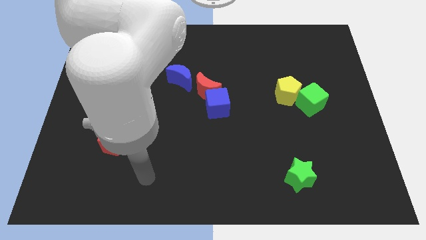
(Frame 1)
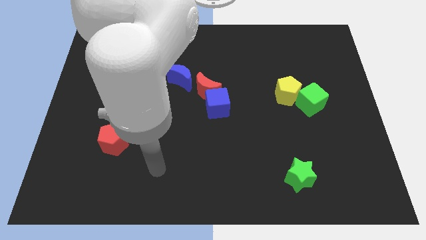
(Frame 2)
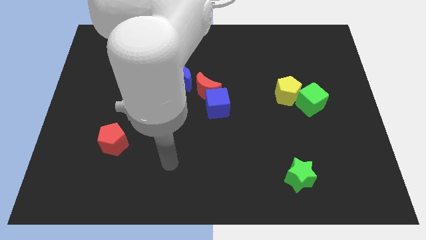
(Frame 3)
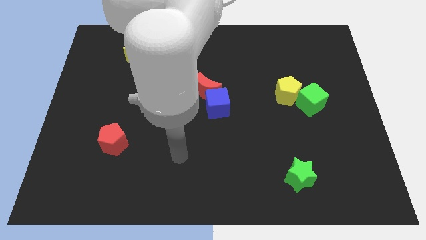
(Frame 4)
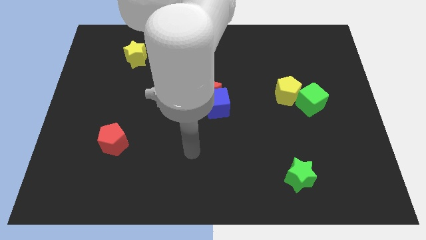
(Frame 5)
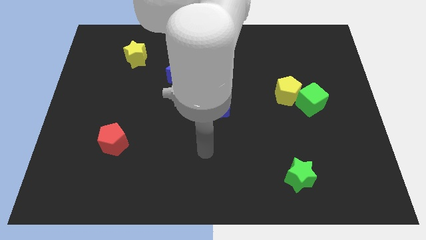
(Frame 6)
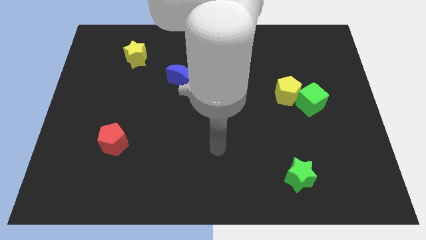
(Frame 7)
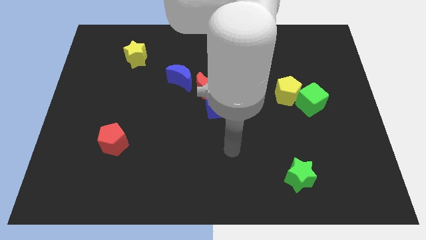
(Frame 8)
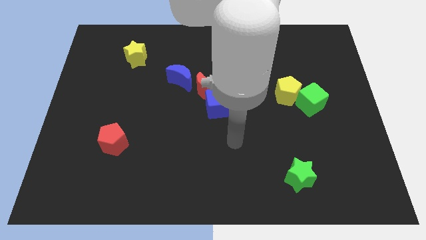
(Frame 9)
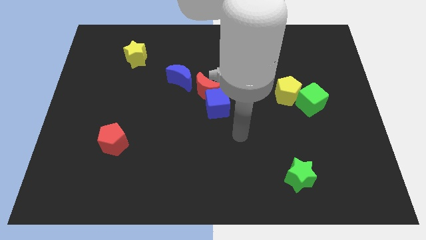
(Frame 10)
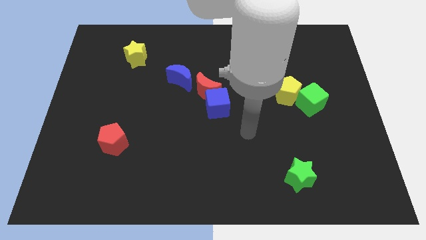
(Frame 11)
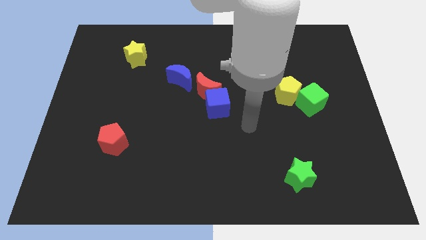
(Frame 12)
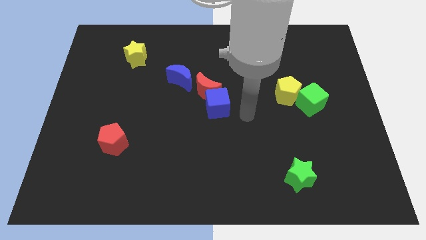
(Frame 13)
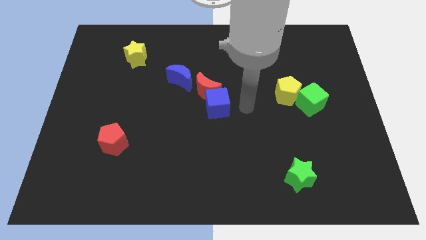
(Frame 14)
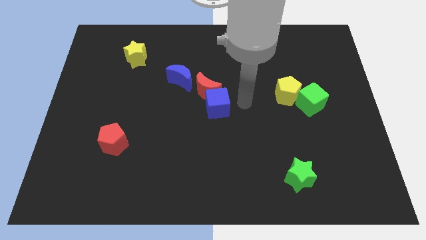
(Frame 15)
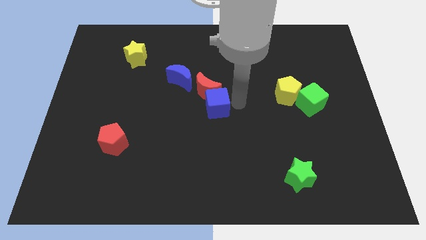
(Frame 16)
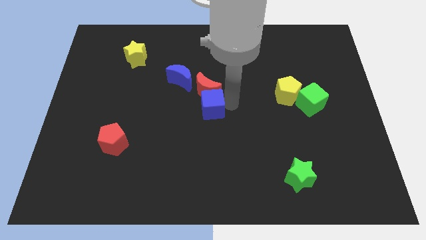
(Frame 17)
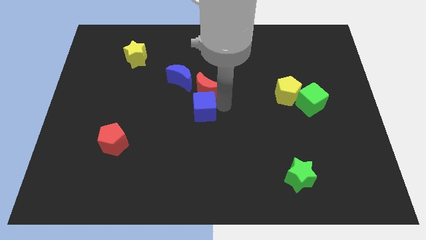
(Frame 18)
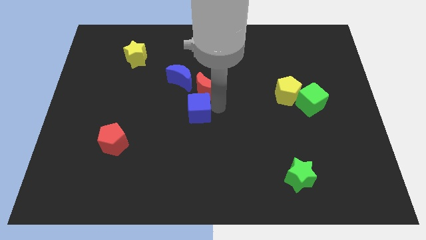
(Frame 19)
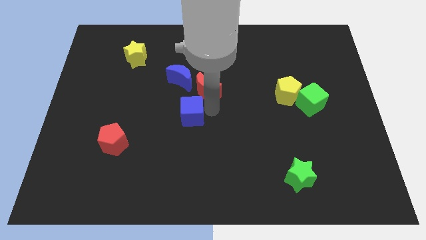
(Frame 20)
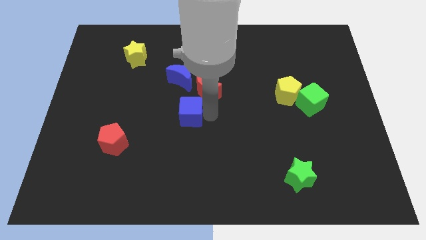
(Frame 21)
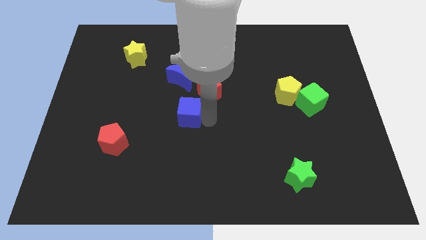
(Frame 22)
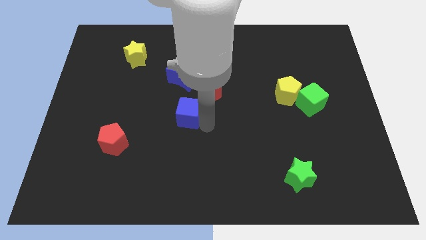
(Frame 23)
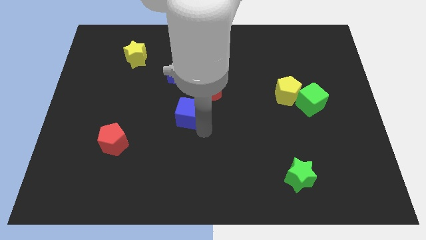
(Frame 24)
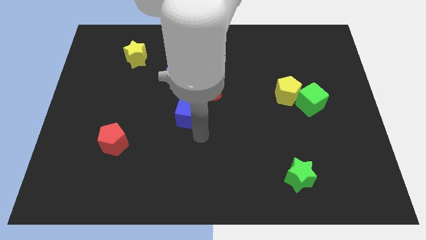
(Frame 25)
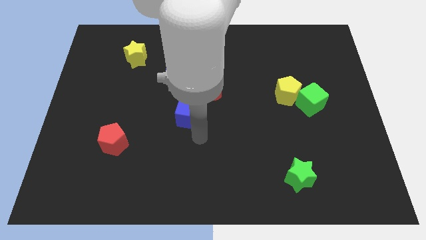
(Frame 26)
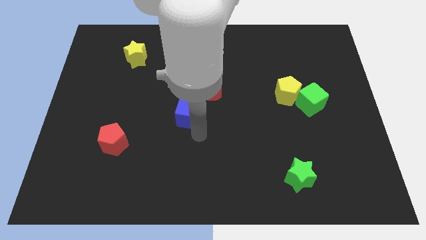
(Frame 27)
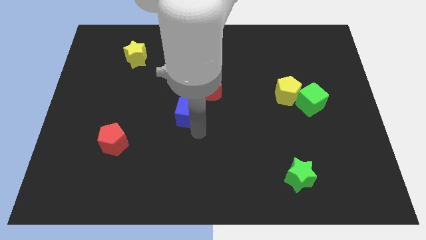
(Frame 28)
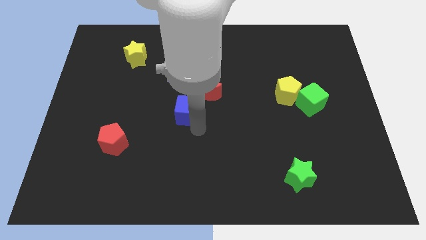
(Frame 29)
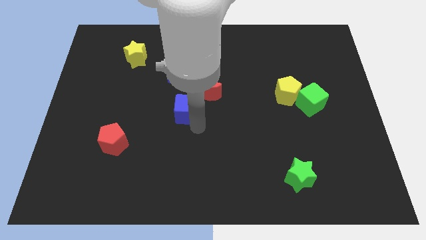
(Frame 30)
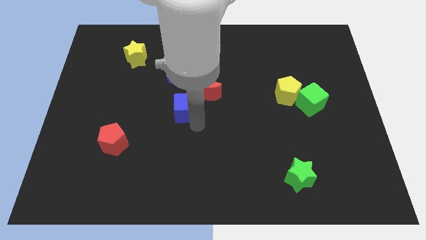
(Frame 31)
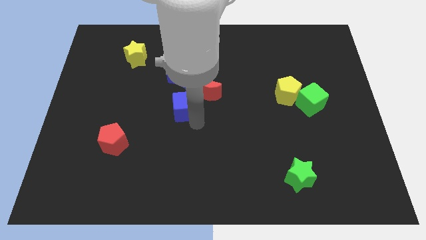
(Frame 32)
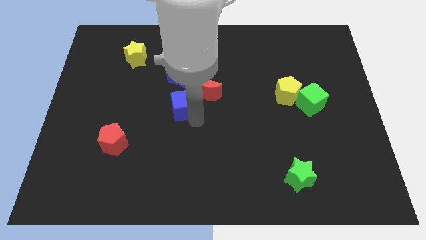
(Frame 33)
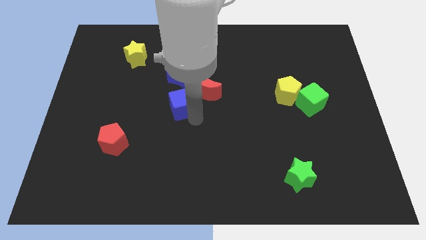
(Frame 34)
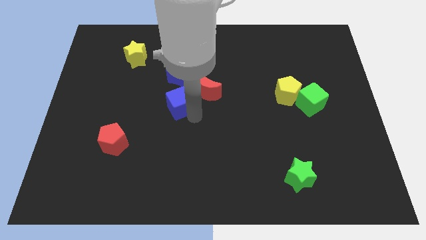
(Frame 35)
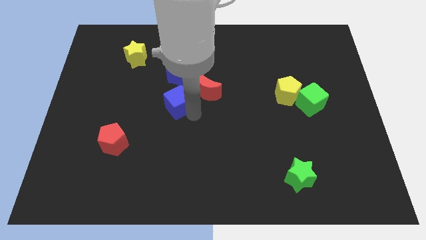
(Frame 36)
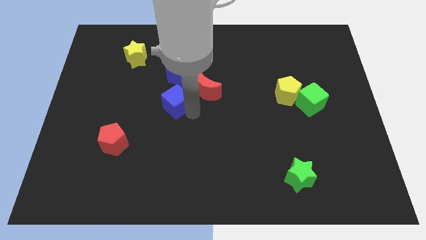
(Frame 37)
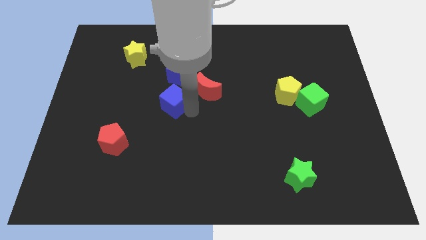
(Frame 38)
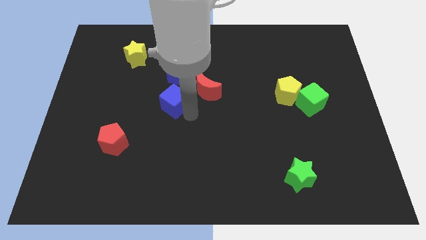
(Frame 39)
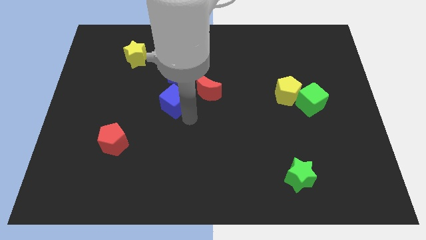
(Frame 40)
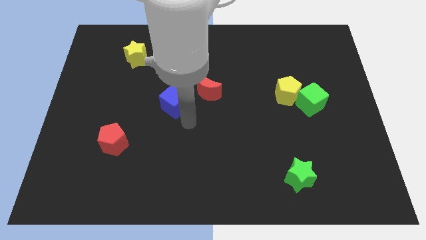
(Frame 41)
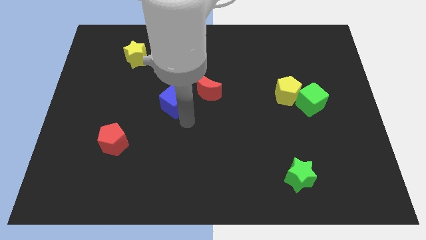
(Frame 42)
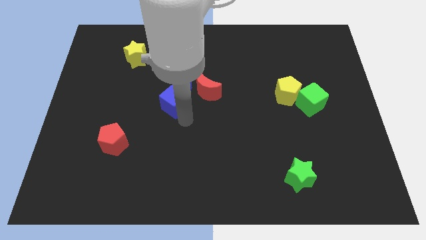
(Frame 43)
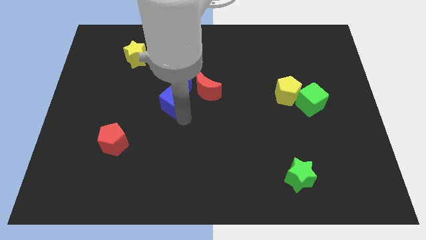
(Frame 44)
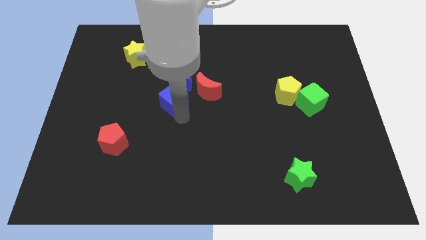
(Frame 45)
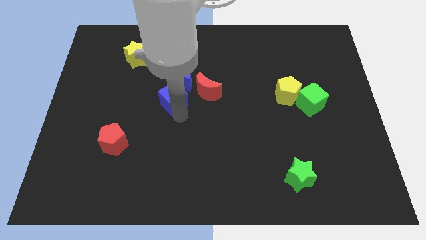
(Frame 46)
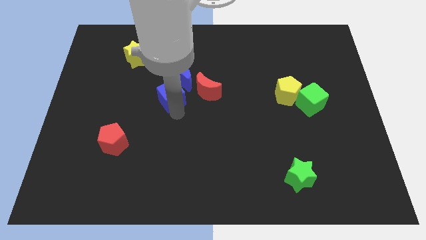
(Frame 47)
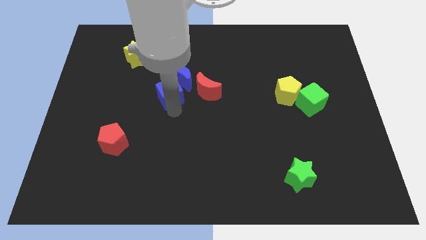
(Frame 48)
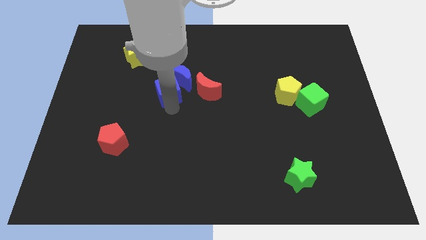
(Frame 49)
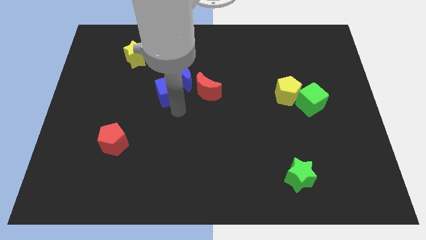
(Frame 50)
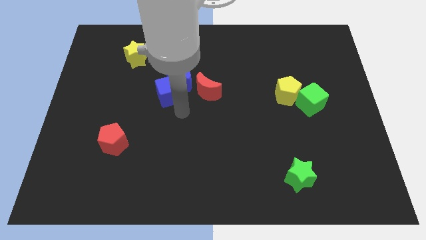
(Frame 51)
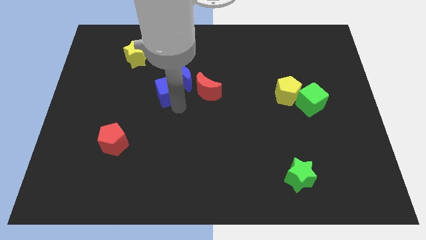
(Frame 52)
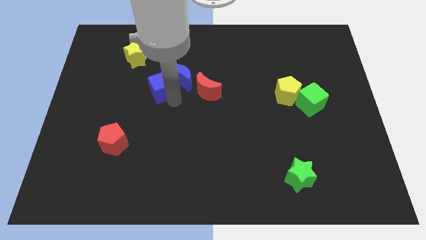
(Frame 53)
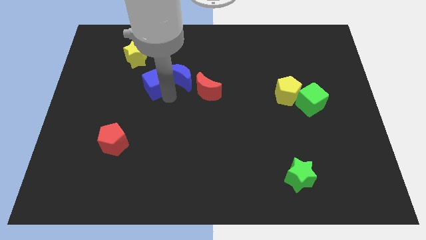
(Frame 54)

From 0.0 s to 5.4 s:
move the blue cube to the bottom right of the yellow star

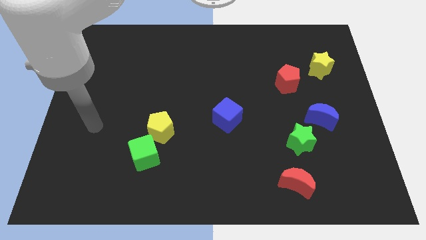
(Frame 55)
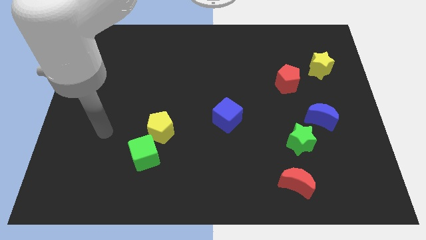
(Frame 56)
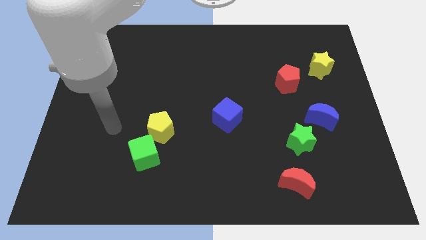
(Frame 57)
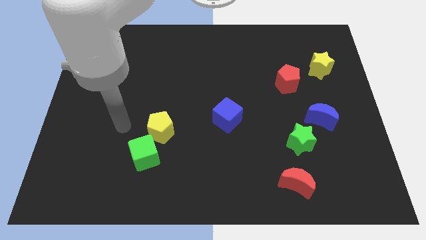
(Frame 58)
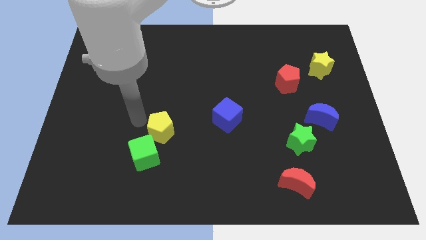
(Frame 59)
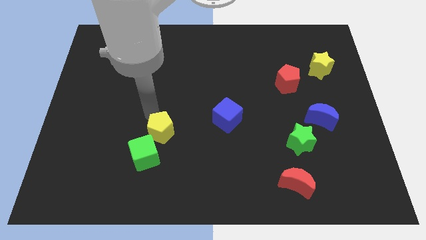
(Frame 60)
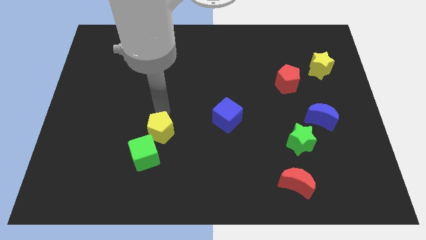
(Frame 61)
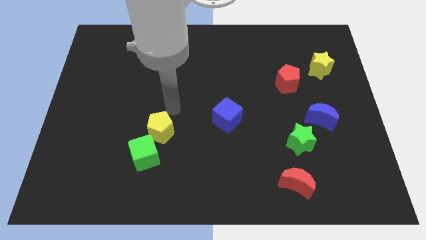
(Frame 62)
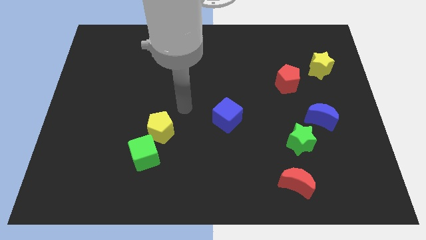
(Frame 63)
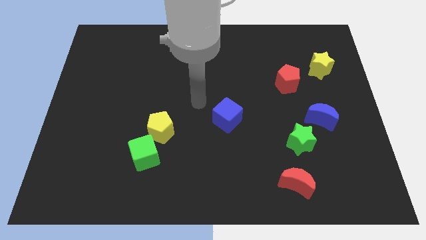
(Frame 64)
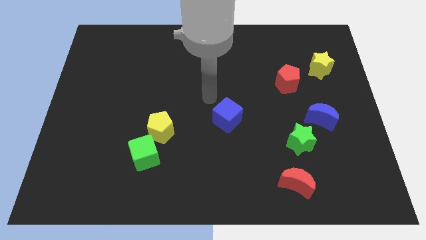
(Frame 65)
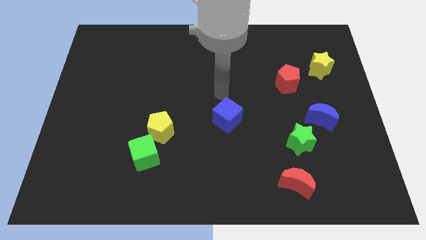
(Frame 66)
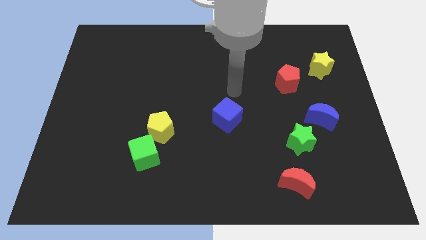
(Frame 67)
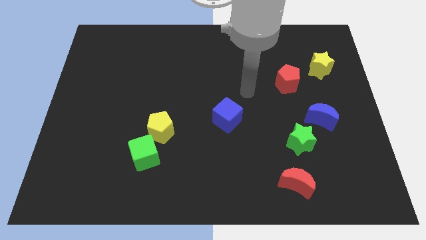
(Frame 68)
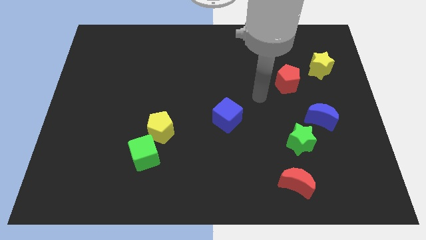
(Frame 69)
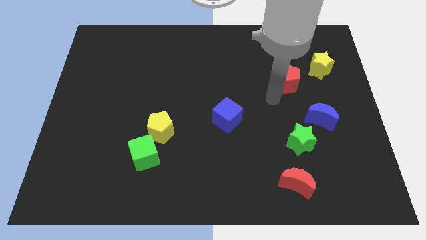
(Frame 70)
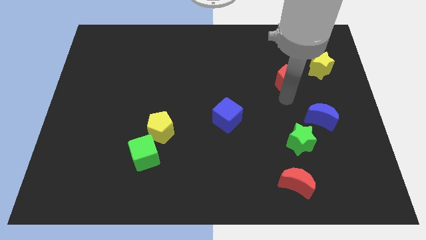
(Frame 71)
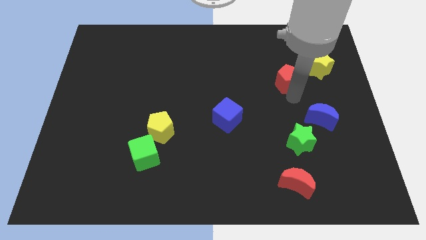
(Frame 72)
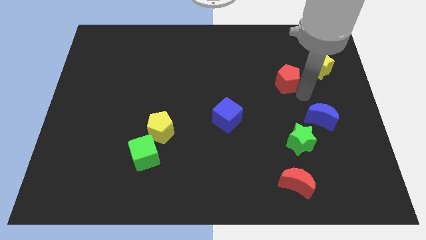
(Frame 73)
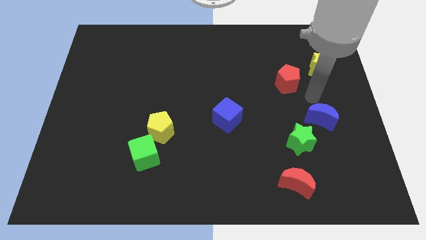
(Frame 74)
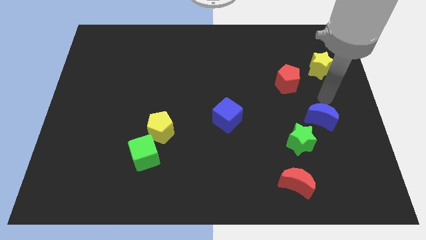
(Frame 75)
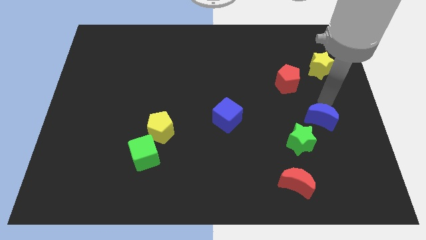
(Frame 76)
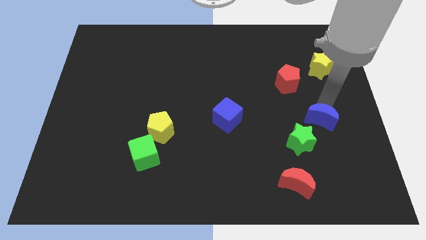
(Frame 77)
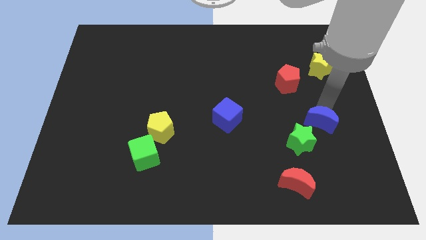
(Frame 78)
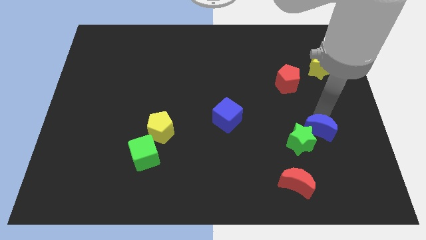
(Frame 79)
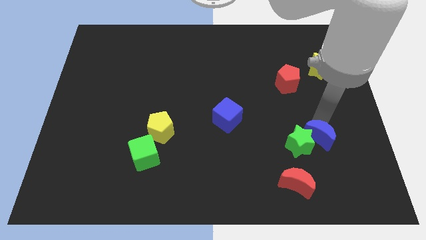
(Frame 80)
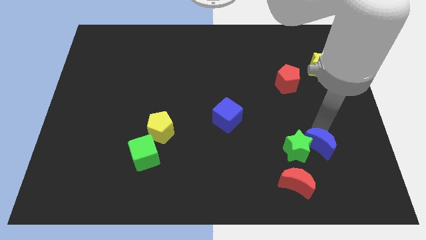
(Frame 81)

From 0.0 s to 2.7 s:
move the blue moon to the top right side of the red moon
